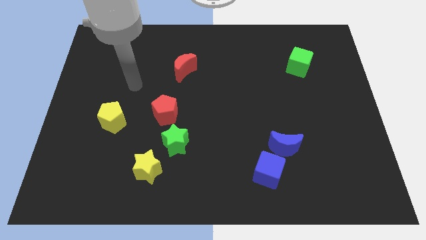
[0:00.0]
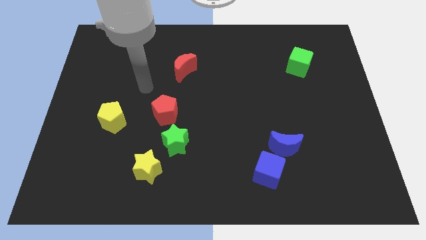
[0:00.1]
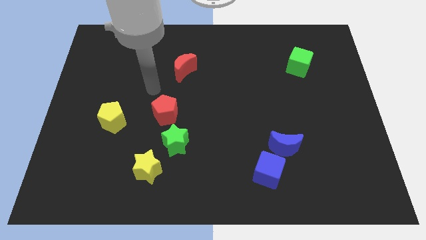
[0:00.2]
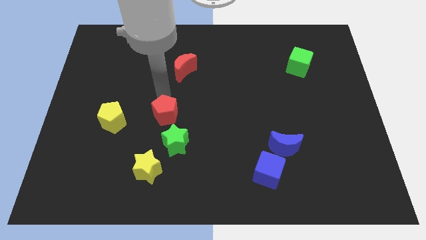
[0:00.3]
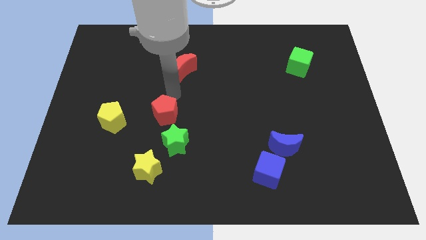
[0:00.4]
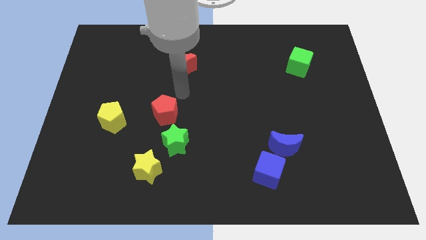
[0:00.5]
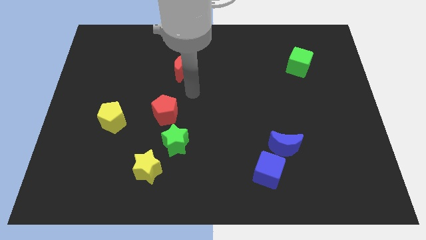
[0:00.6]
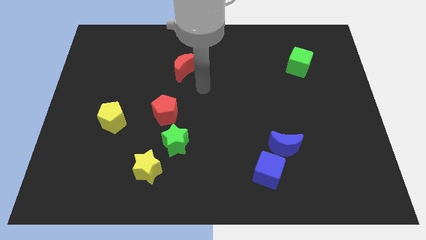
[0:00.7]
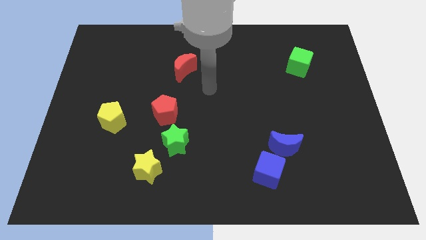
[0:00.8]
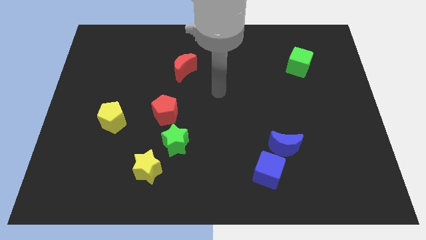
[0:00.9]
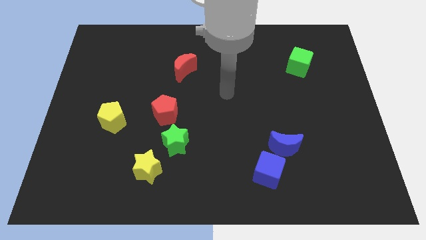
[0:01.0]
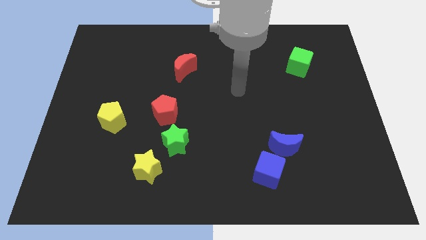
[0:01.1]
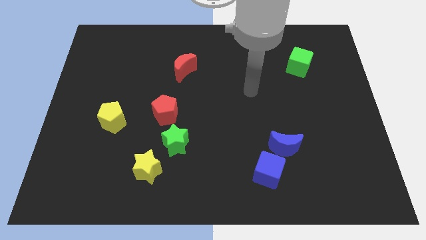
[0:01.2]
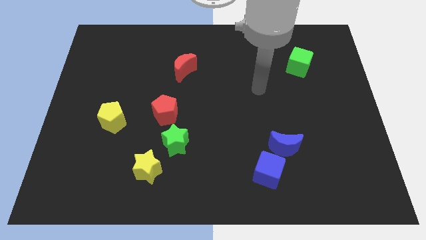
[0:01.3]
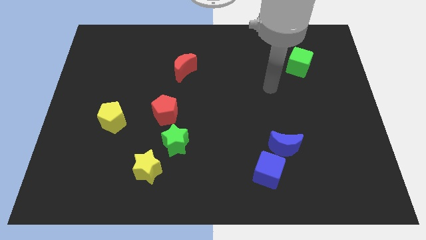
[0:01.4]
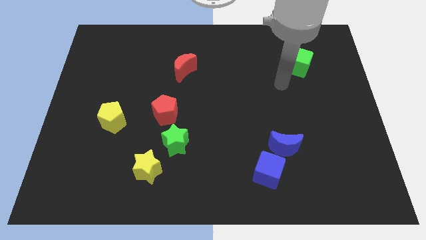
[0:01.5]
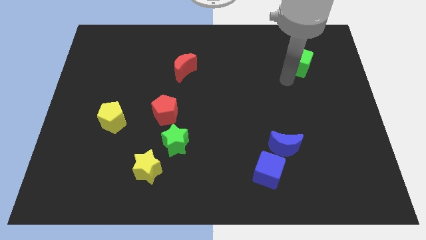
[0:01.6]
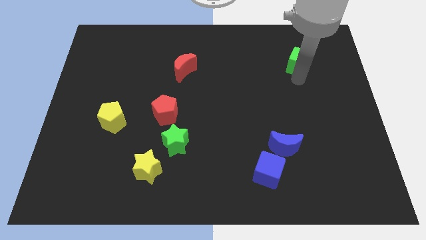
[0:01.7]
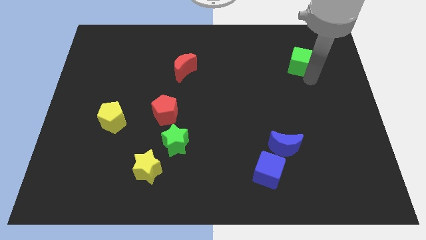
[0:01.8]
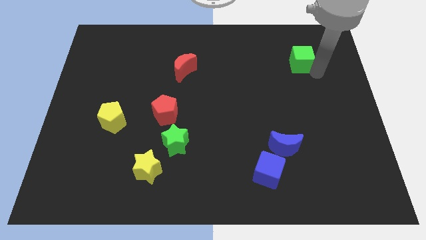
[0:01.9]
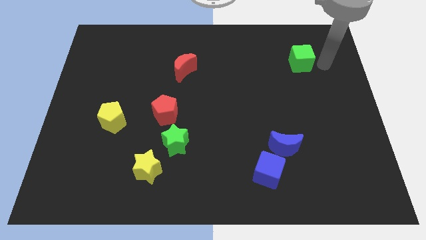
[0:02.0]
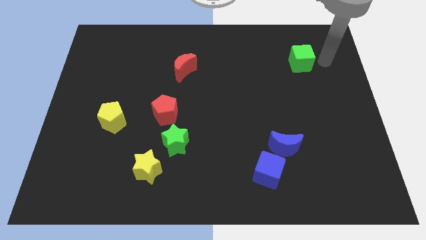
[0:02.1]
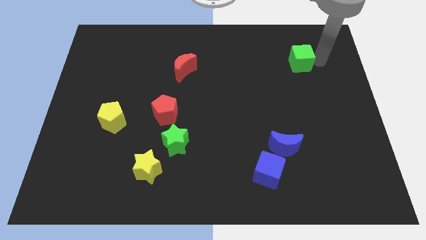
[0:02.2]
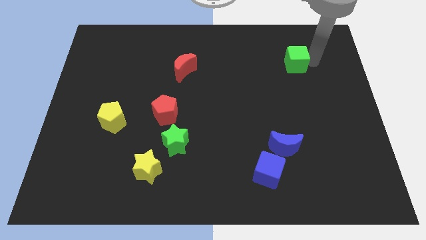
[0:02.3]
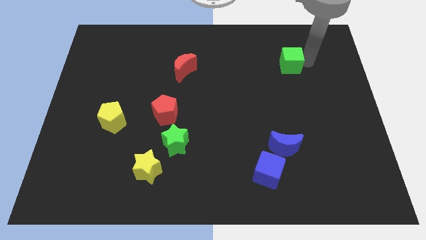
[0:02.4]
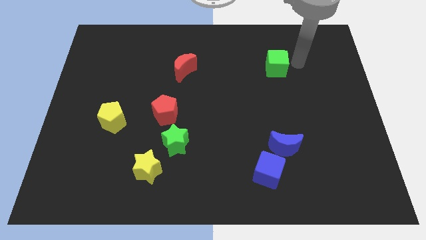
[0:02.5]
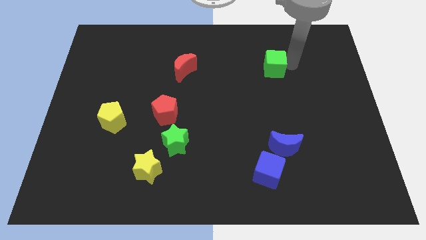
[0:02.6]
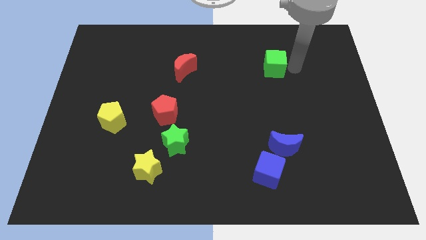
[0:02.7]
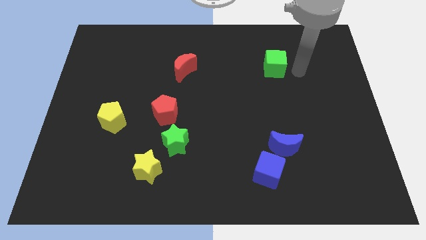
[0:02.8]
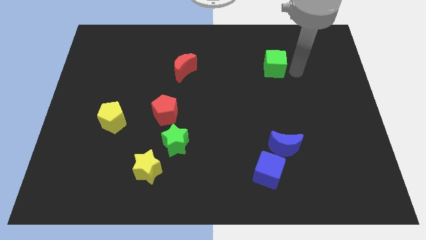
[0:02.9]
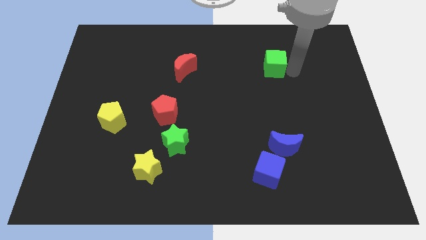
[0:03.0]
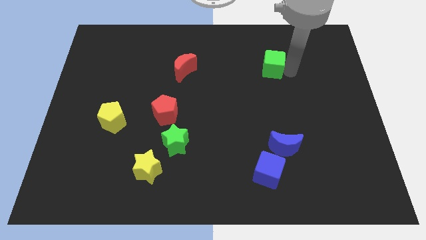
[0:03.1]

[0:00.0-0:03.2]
slide the green cube a little to the left

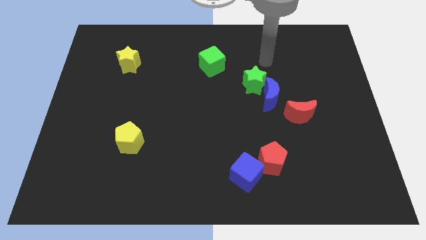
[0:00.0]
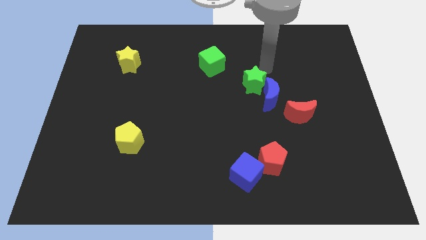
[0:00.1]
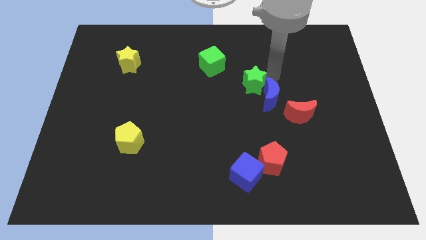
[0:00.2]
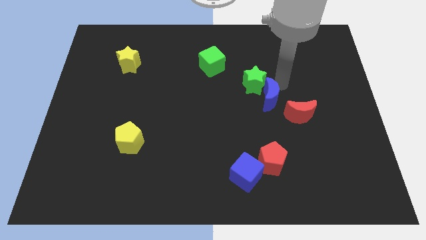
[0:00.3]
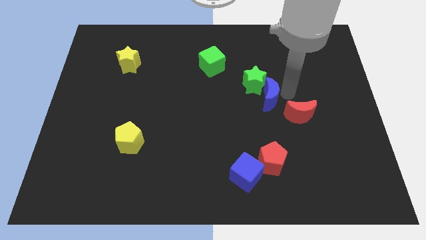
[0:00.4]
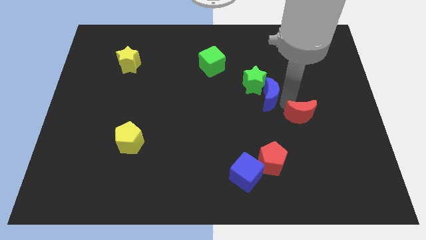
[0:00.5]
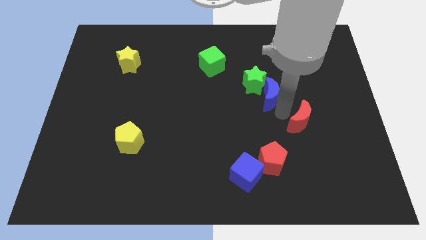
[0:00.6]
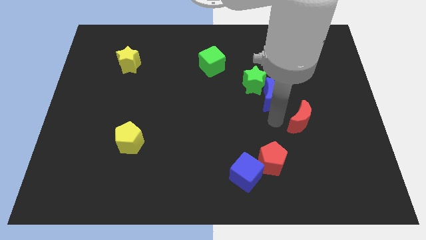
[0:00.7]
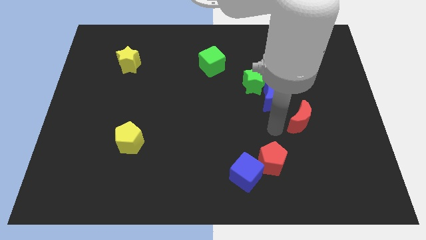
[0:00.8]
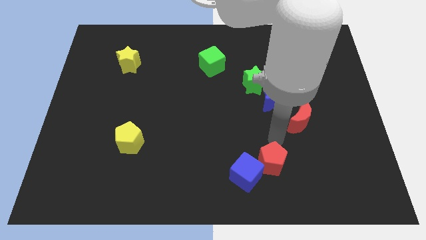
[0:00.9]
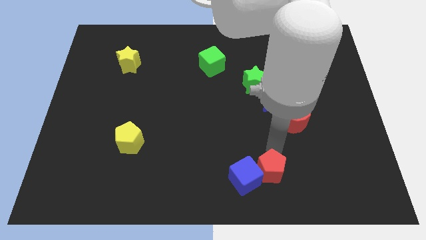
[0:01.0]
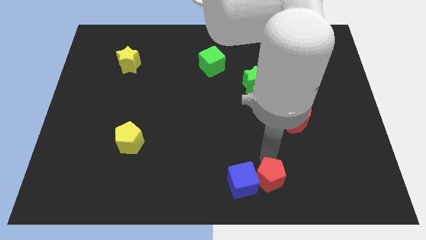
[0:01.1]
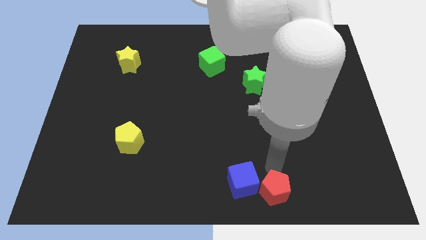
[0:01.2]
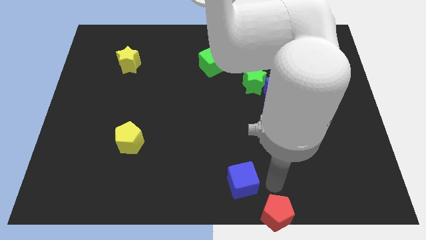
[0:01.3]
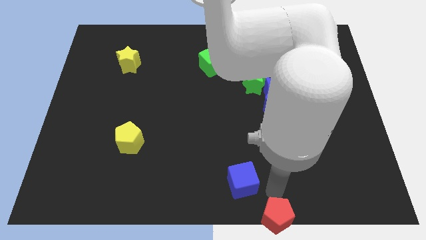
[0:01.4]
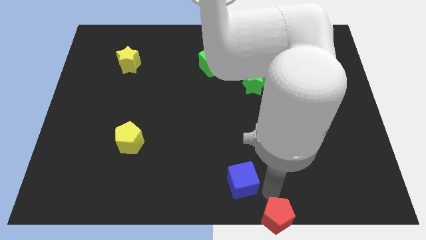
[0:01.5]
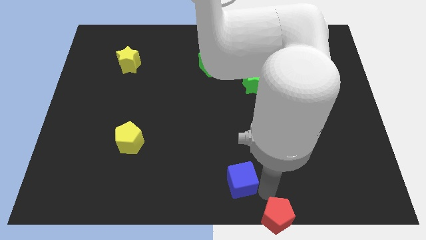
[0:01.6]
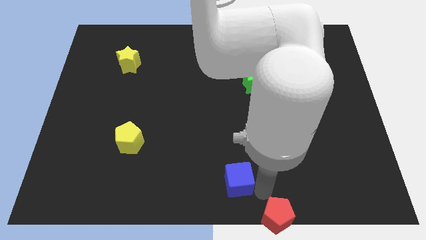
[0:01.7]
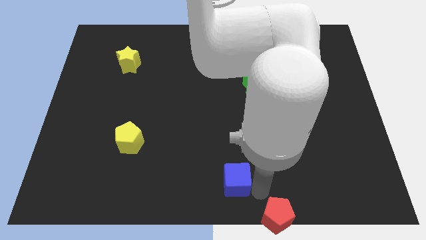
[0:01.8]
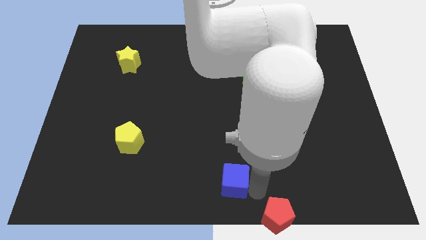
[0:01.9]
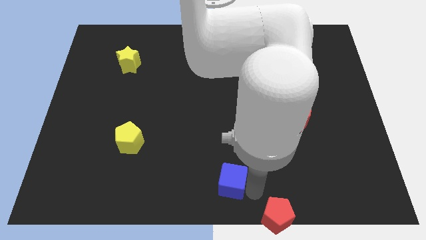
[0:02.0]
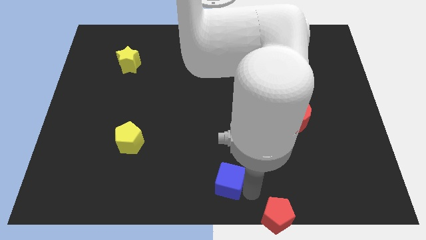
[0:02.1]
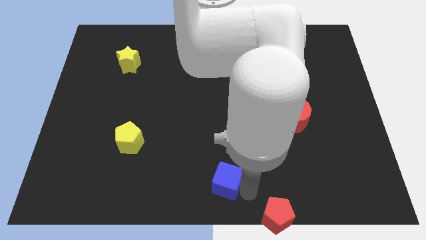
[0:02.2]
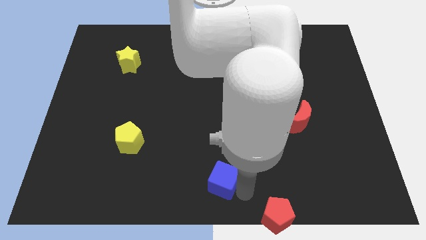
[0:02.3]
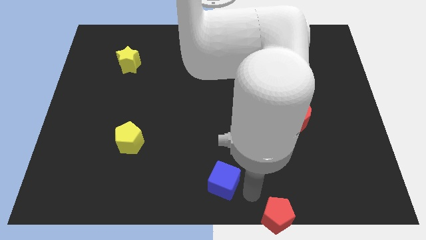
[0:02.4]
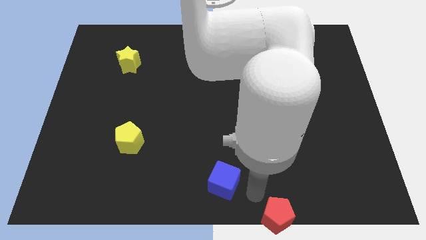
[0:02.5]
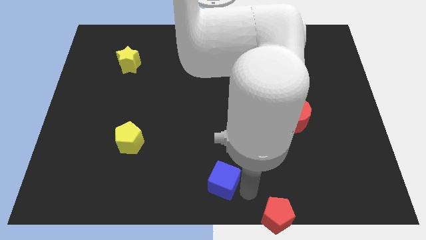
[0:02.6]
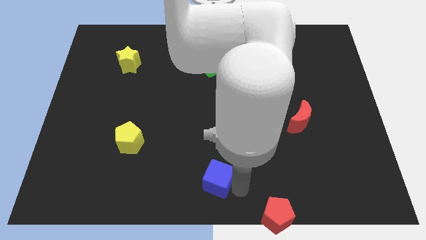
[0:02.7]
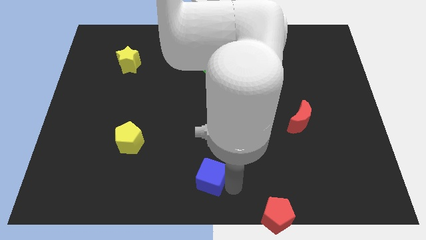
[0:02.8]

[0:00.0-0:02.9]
push the blue cube left somewhat

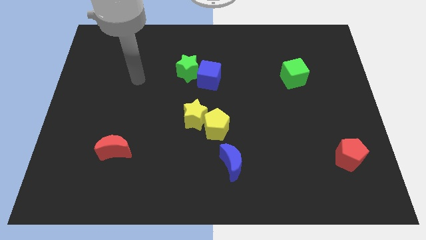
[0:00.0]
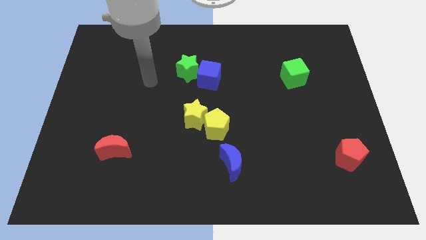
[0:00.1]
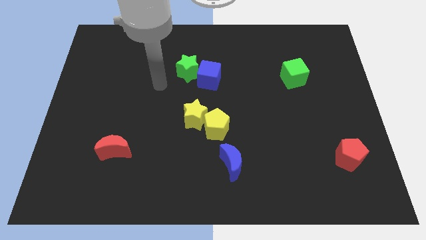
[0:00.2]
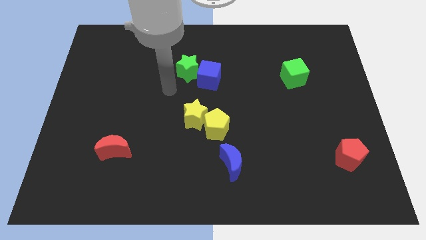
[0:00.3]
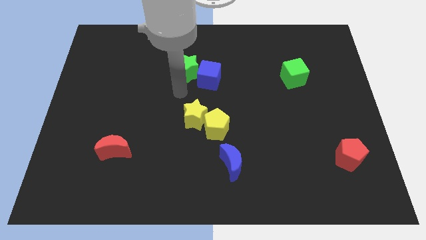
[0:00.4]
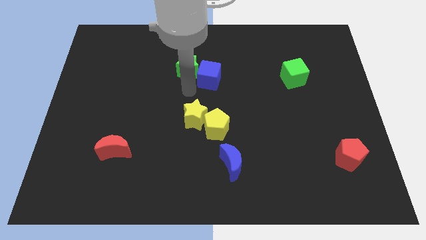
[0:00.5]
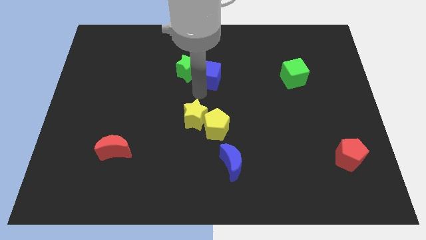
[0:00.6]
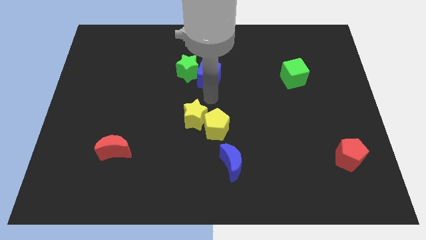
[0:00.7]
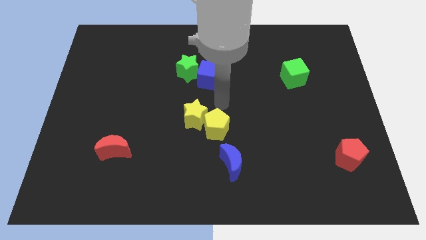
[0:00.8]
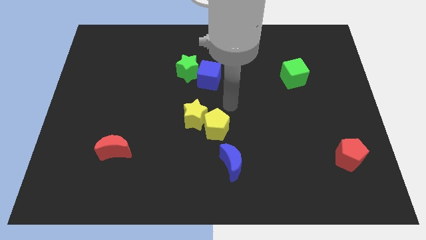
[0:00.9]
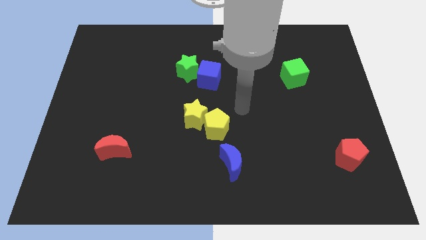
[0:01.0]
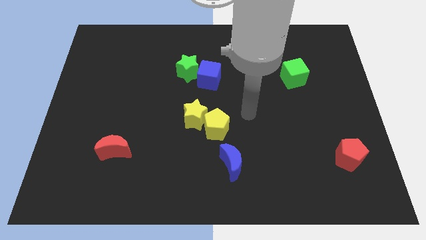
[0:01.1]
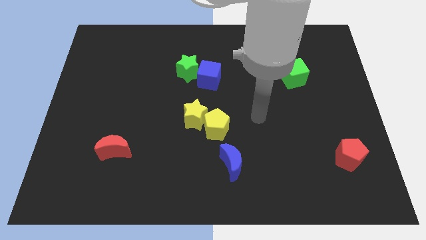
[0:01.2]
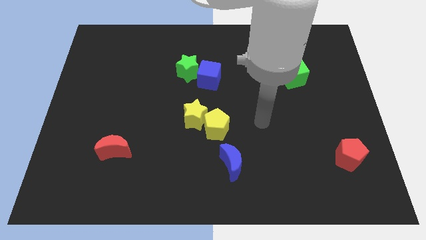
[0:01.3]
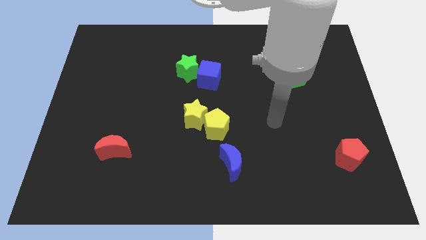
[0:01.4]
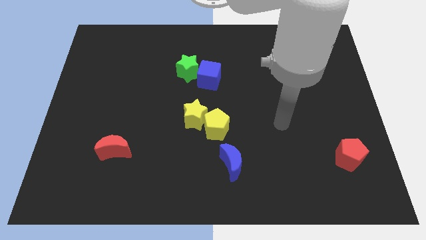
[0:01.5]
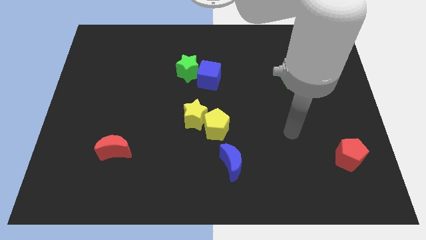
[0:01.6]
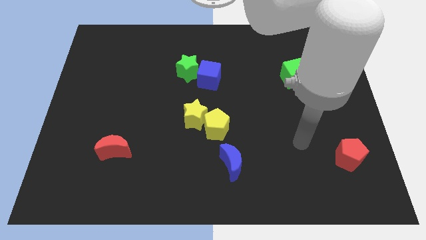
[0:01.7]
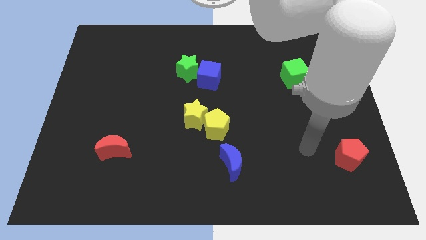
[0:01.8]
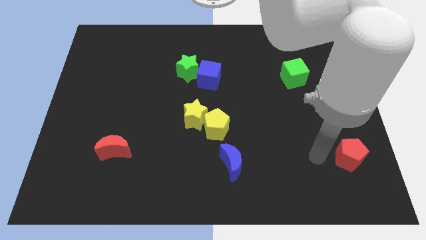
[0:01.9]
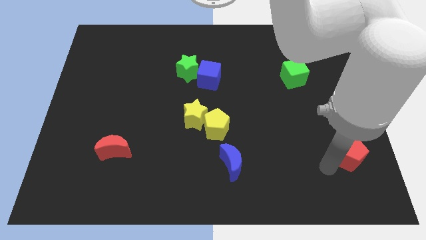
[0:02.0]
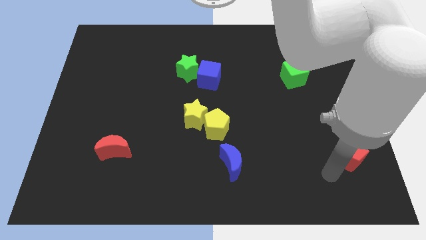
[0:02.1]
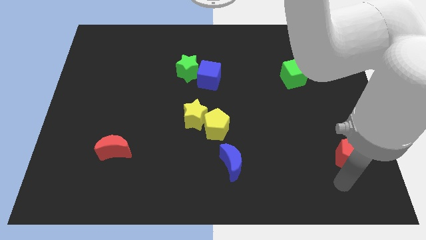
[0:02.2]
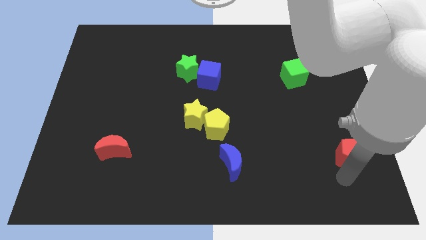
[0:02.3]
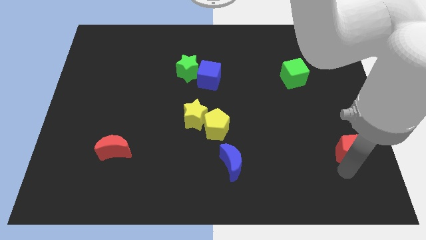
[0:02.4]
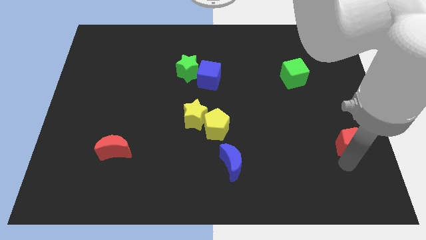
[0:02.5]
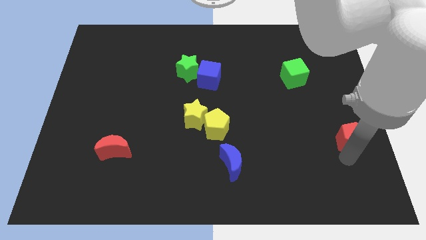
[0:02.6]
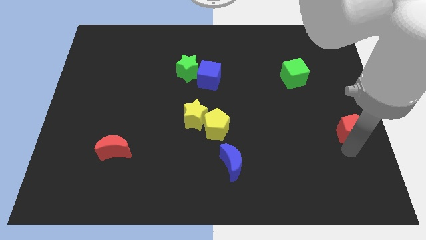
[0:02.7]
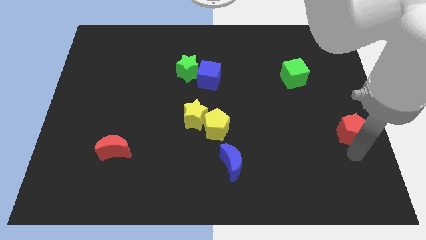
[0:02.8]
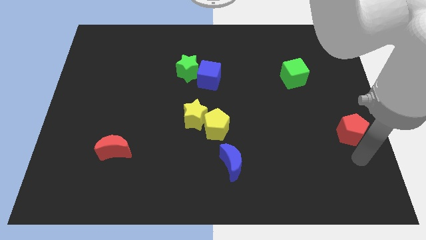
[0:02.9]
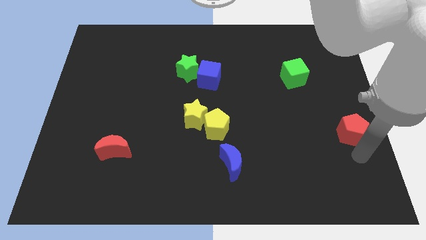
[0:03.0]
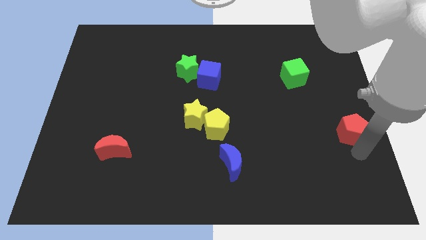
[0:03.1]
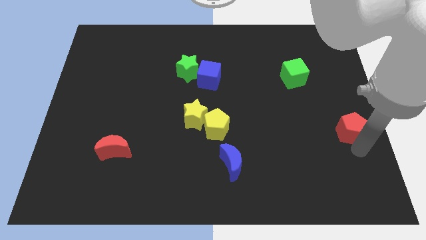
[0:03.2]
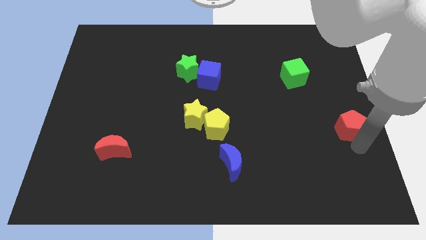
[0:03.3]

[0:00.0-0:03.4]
slide the red pentagon a bit up
